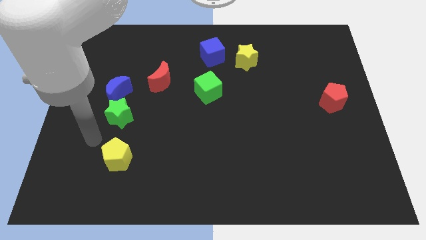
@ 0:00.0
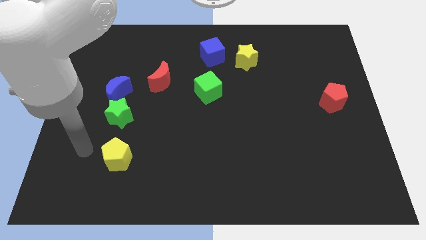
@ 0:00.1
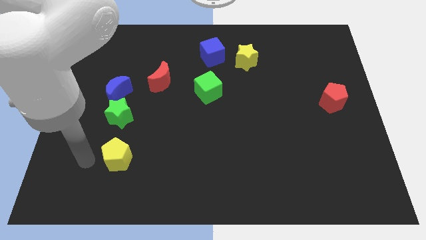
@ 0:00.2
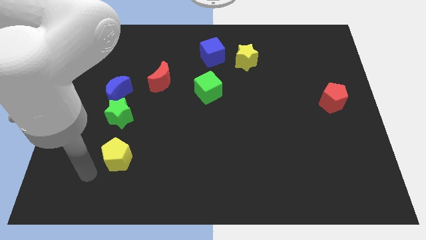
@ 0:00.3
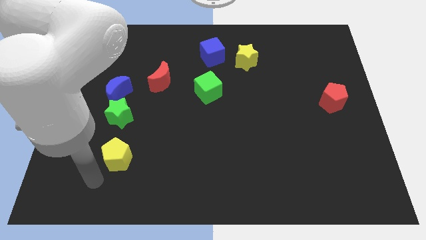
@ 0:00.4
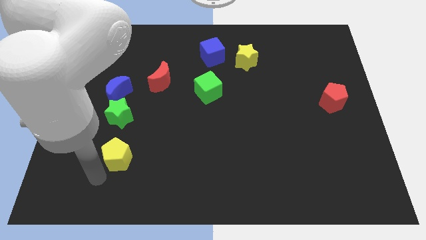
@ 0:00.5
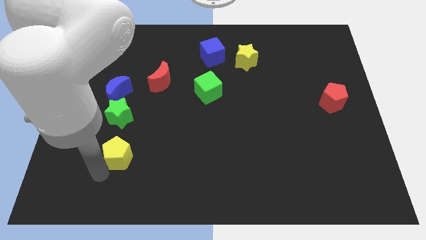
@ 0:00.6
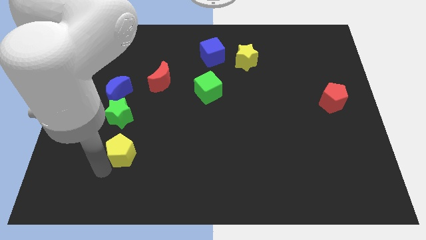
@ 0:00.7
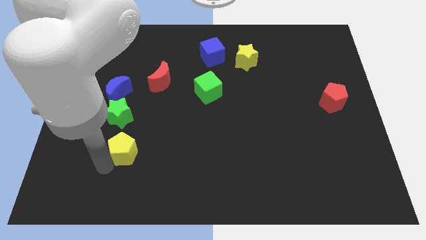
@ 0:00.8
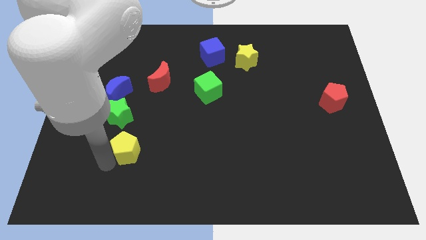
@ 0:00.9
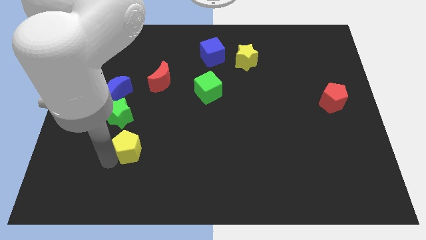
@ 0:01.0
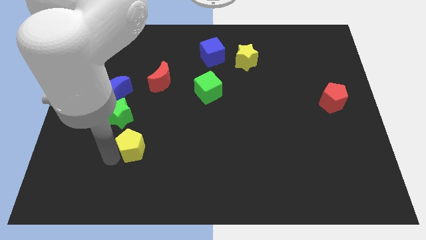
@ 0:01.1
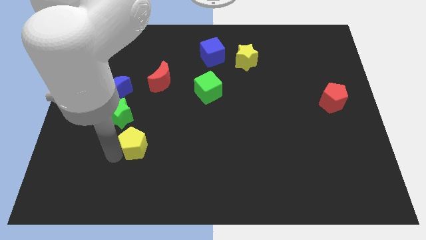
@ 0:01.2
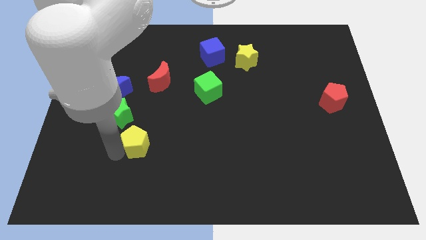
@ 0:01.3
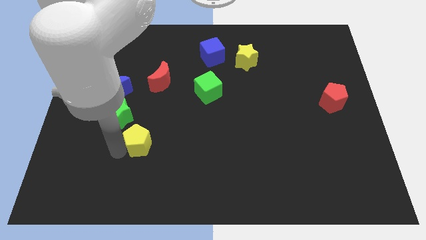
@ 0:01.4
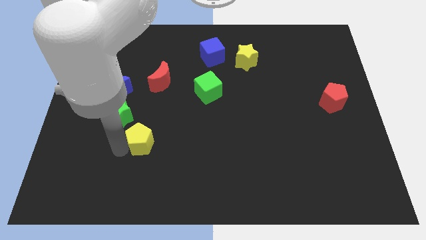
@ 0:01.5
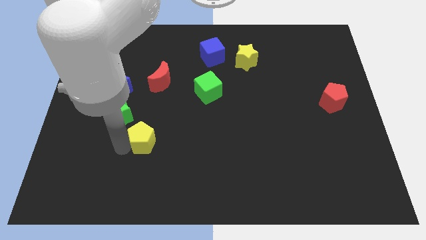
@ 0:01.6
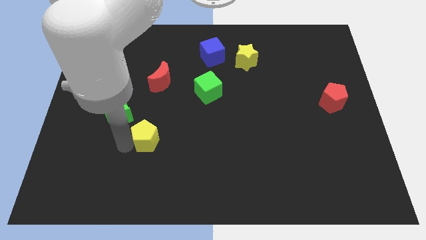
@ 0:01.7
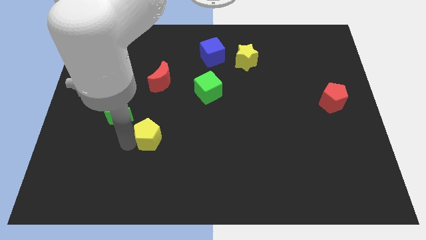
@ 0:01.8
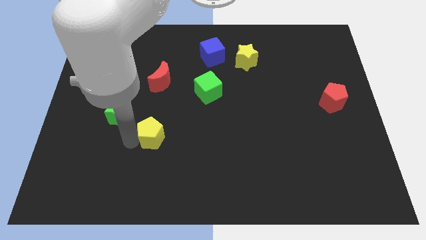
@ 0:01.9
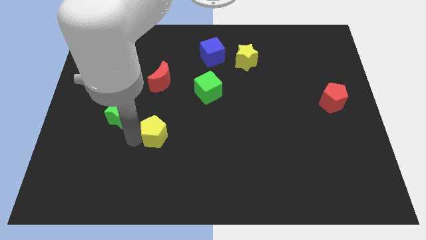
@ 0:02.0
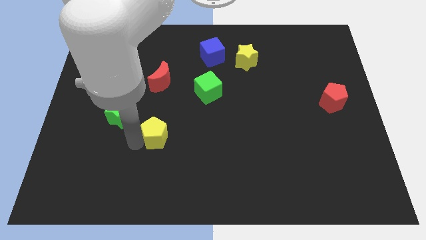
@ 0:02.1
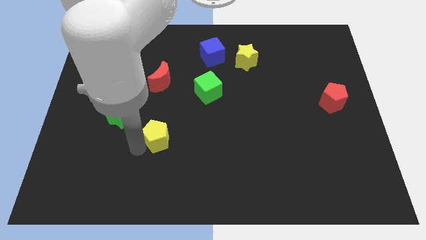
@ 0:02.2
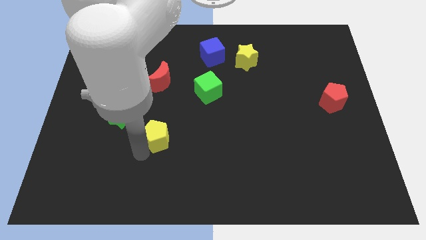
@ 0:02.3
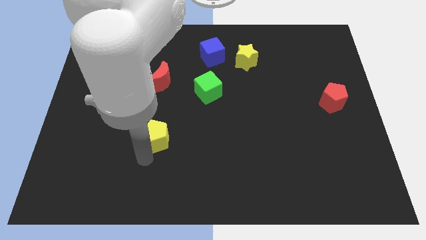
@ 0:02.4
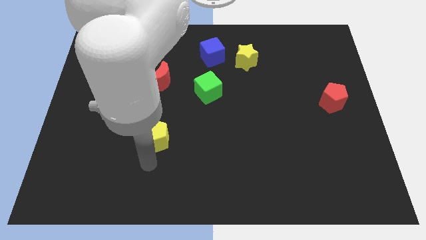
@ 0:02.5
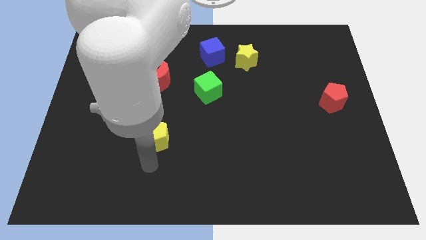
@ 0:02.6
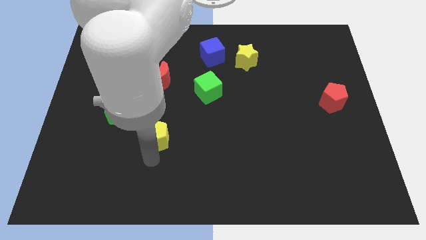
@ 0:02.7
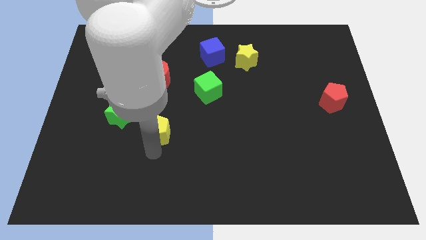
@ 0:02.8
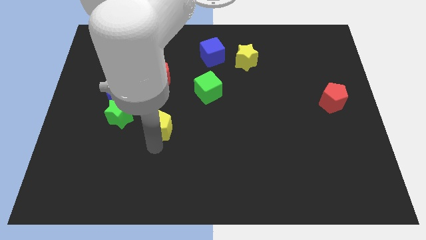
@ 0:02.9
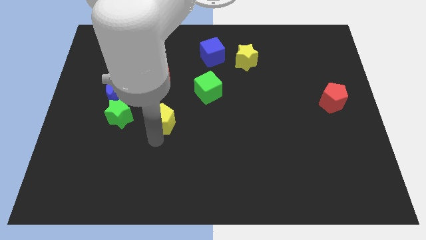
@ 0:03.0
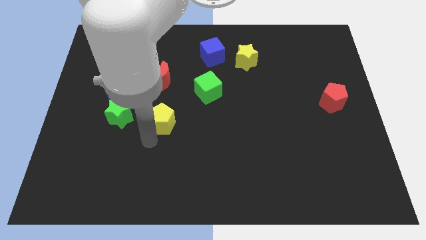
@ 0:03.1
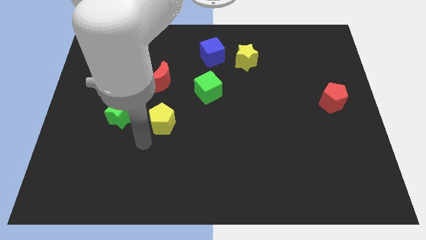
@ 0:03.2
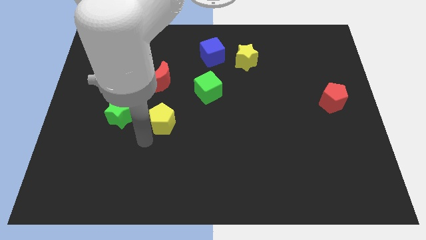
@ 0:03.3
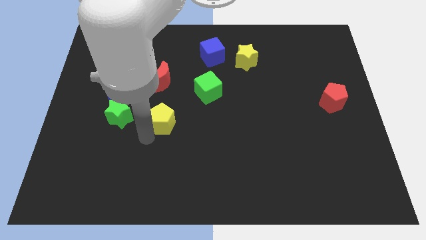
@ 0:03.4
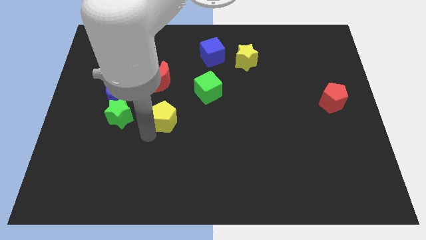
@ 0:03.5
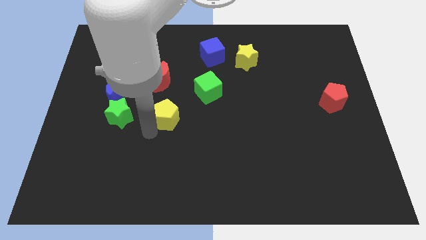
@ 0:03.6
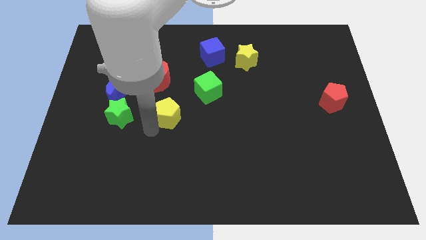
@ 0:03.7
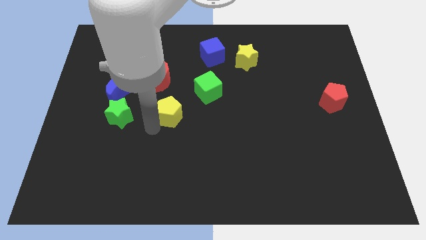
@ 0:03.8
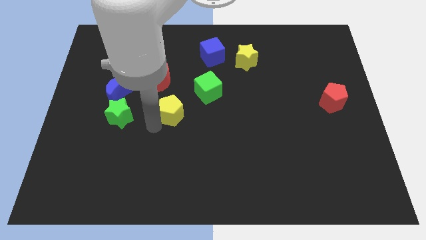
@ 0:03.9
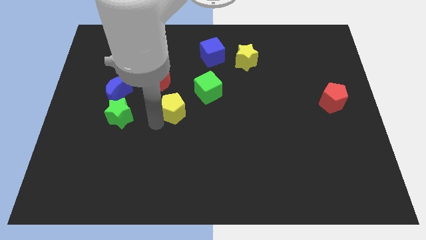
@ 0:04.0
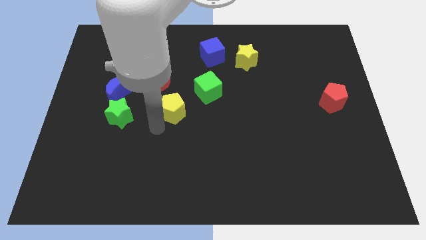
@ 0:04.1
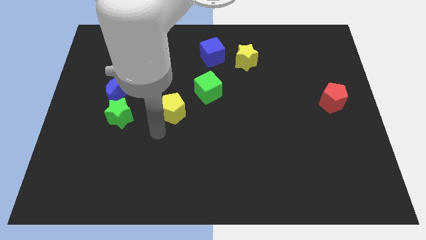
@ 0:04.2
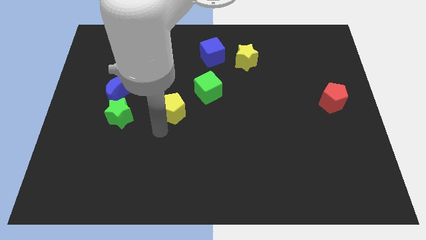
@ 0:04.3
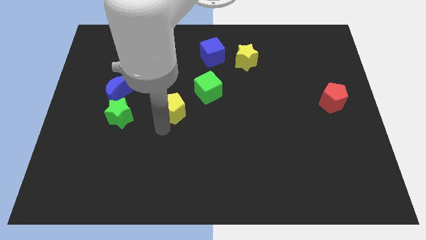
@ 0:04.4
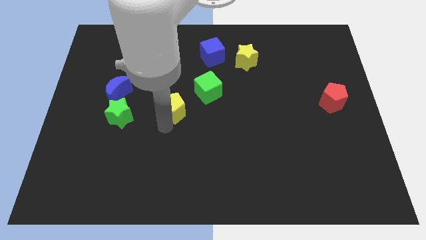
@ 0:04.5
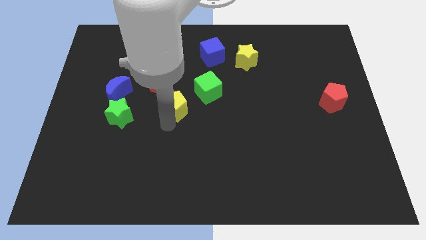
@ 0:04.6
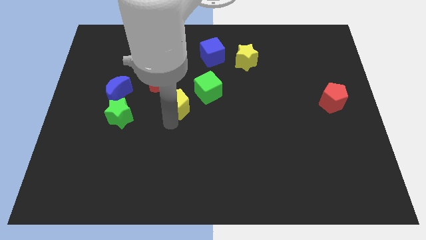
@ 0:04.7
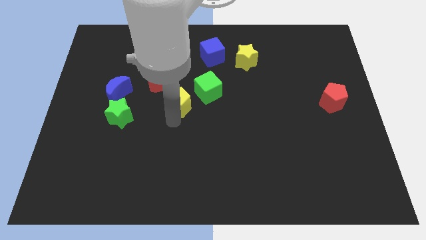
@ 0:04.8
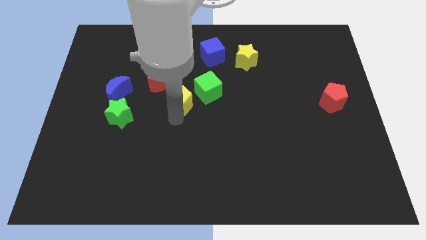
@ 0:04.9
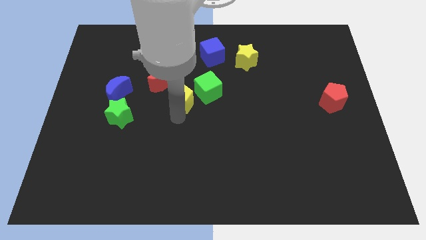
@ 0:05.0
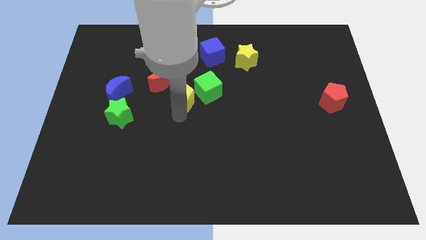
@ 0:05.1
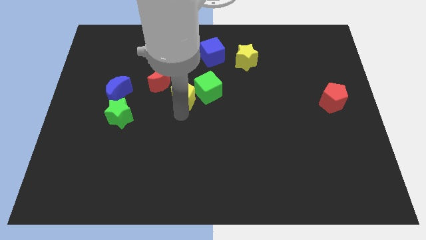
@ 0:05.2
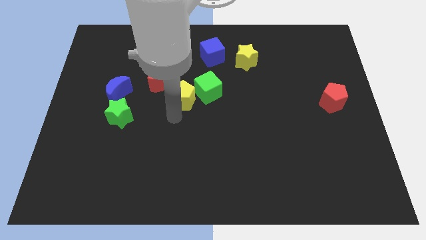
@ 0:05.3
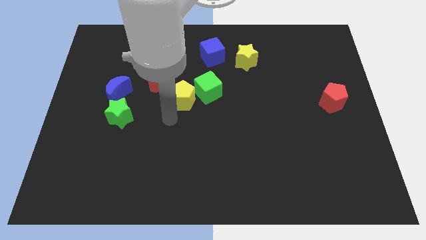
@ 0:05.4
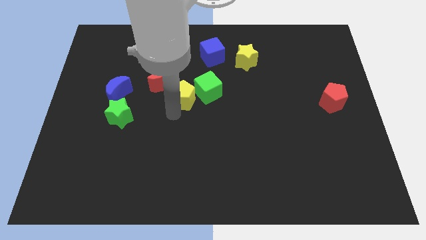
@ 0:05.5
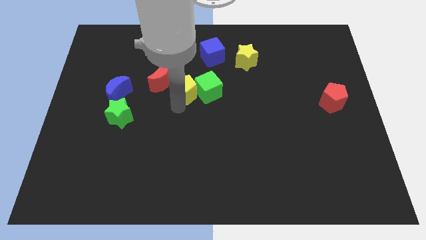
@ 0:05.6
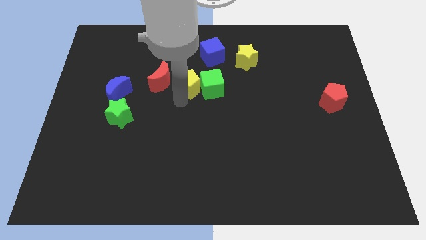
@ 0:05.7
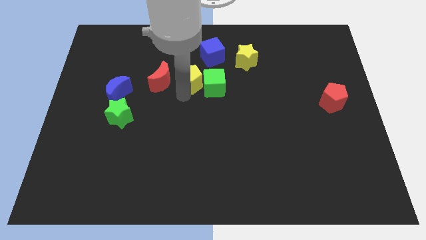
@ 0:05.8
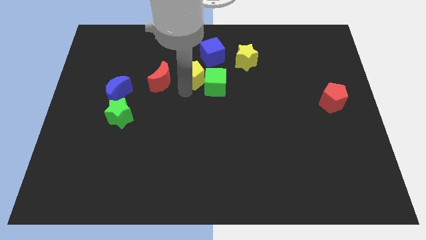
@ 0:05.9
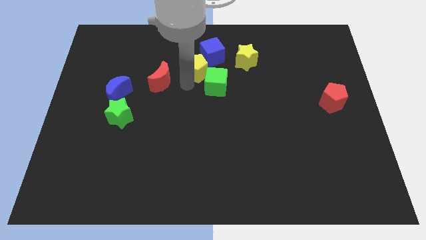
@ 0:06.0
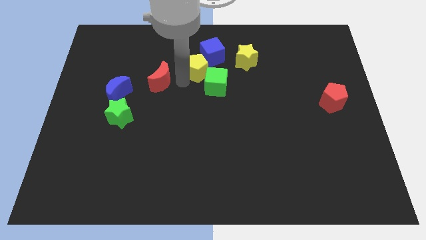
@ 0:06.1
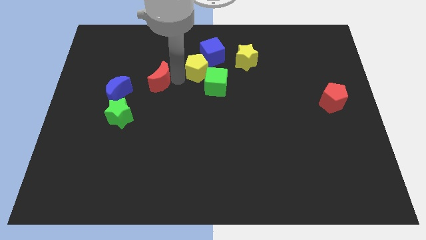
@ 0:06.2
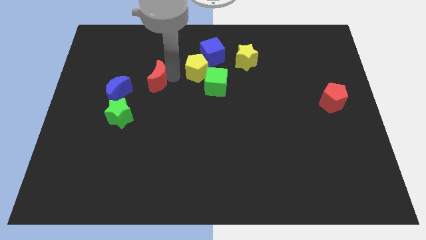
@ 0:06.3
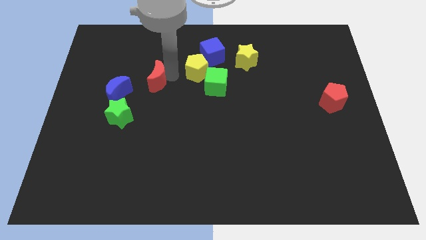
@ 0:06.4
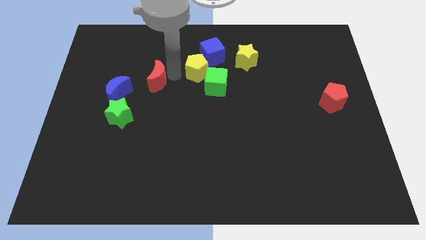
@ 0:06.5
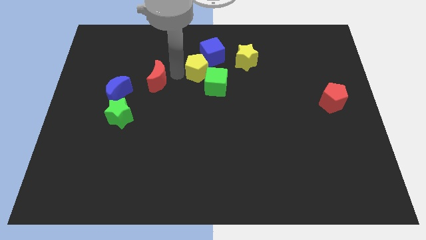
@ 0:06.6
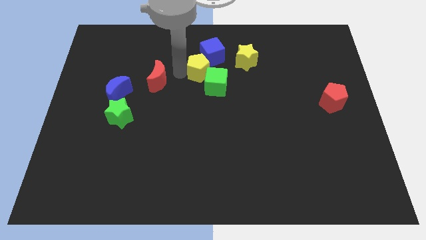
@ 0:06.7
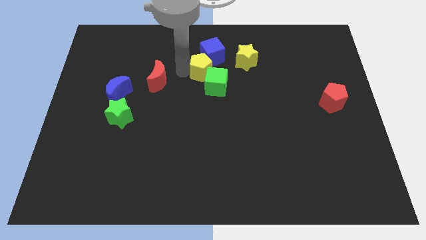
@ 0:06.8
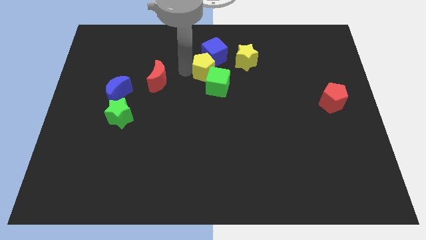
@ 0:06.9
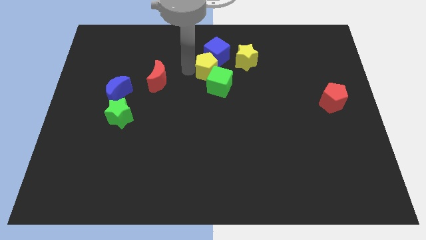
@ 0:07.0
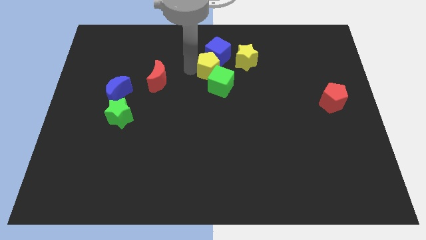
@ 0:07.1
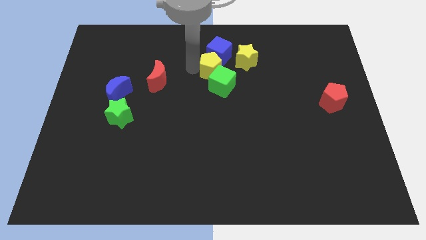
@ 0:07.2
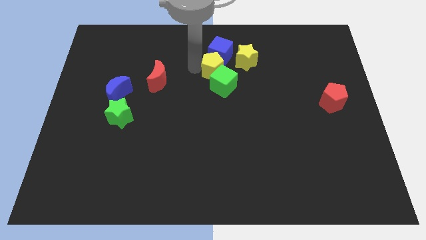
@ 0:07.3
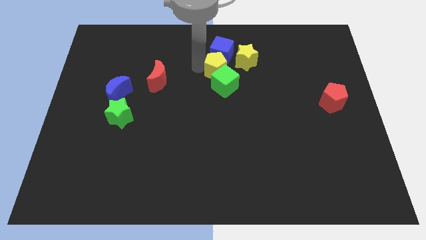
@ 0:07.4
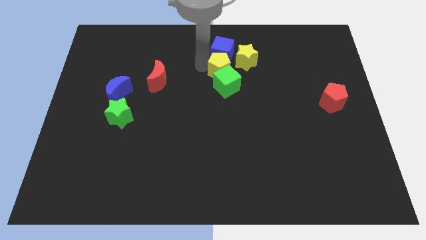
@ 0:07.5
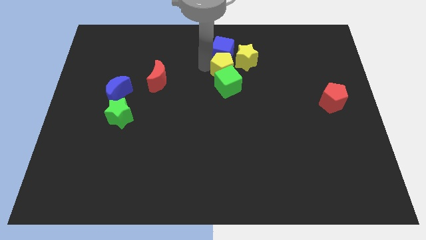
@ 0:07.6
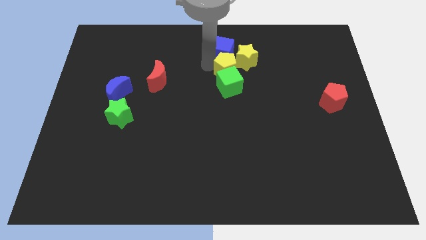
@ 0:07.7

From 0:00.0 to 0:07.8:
put the yellow pentagon next to the yellow star
